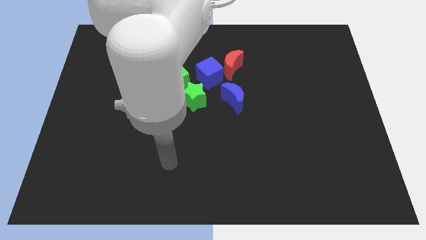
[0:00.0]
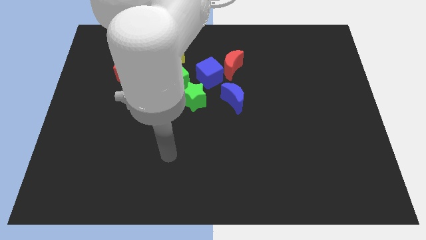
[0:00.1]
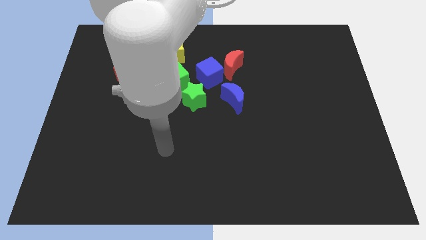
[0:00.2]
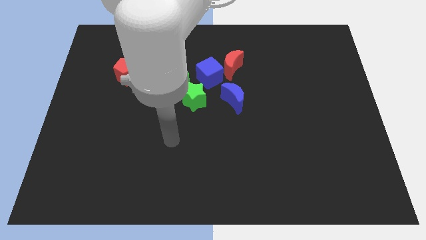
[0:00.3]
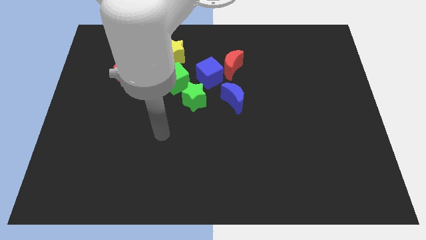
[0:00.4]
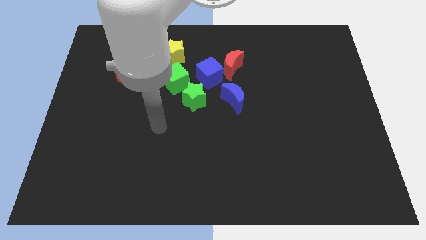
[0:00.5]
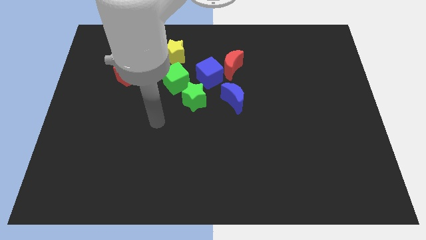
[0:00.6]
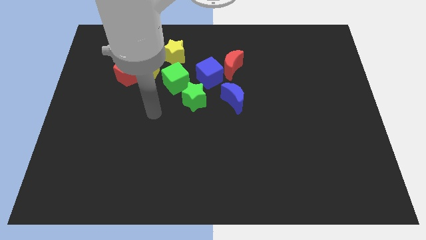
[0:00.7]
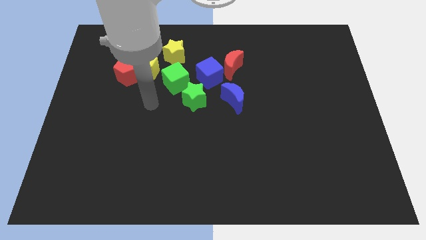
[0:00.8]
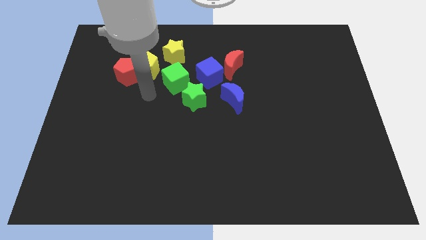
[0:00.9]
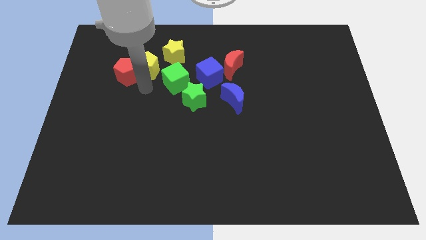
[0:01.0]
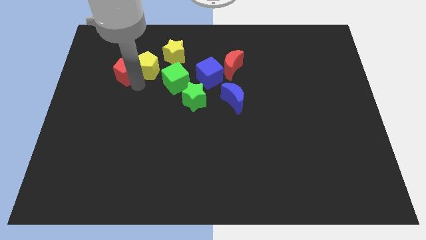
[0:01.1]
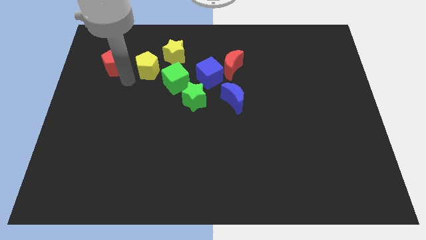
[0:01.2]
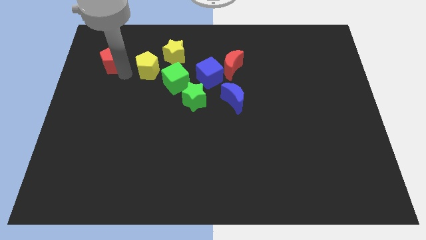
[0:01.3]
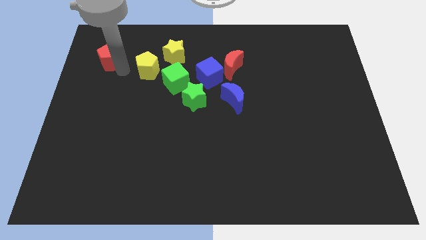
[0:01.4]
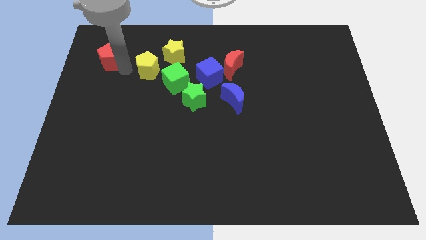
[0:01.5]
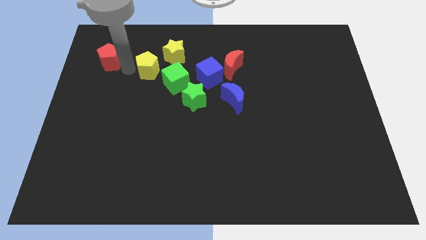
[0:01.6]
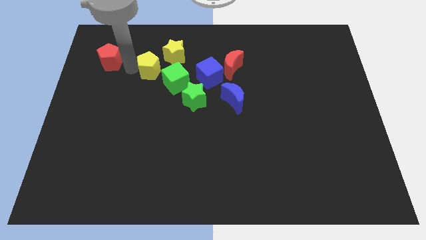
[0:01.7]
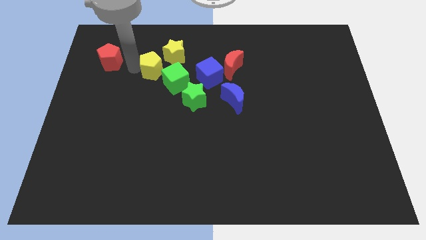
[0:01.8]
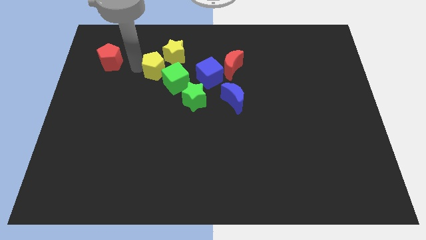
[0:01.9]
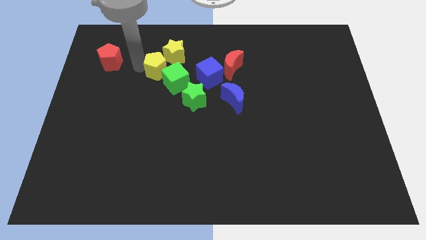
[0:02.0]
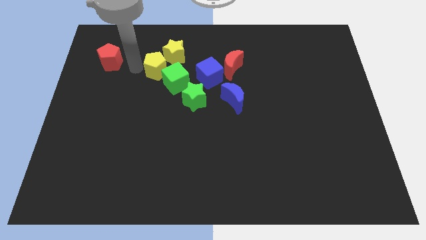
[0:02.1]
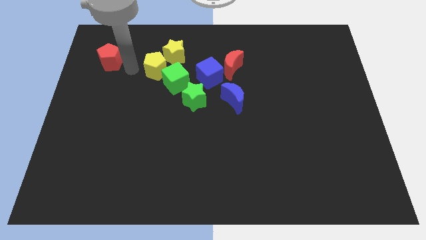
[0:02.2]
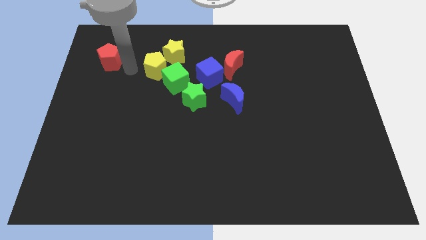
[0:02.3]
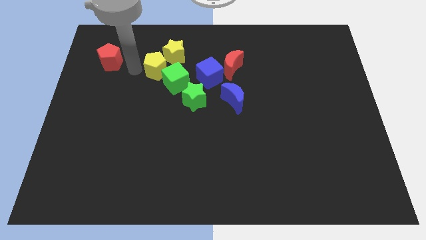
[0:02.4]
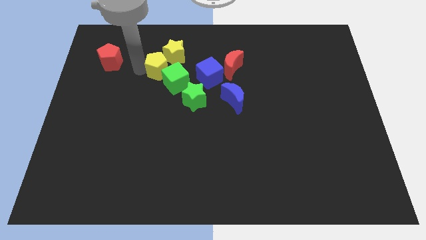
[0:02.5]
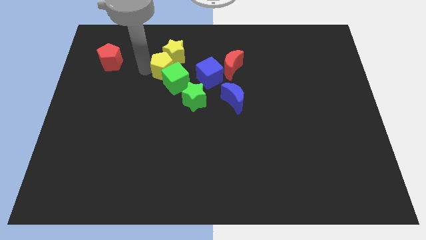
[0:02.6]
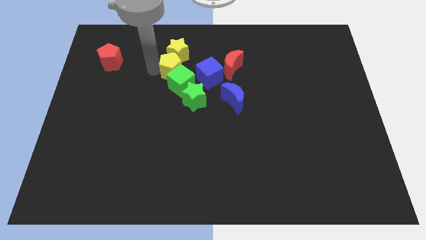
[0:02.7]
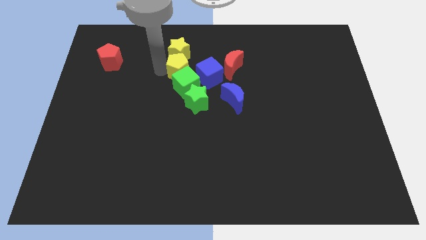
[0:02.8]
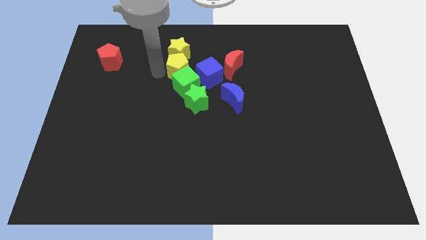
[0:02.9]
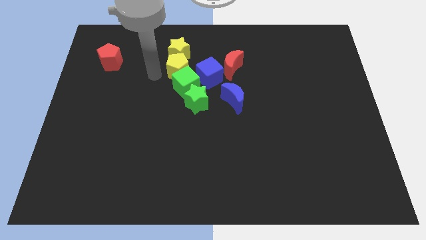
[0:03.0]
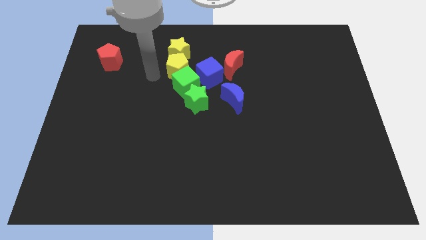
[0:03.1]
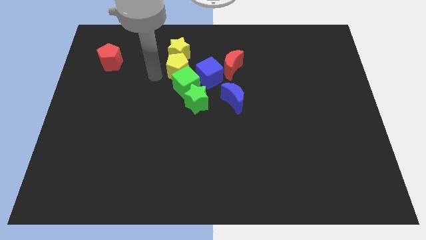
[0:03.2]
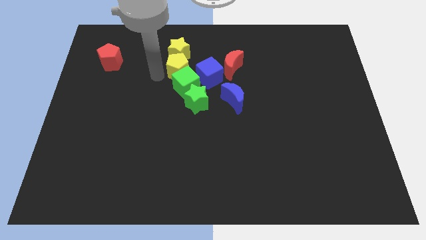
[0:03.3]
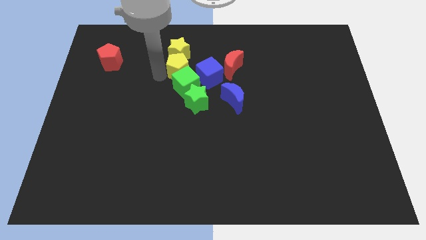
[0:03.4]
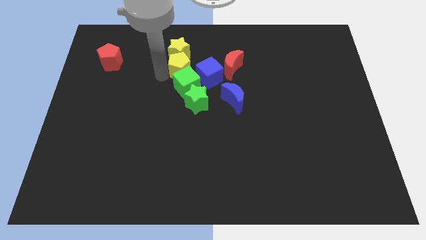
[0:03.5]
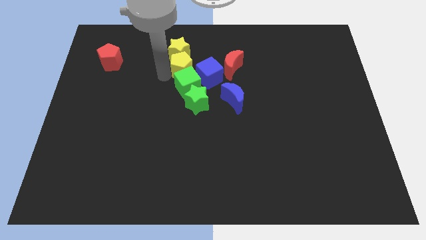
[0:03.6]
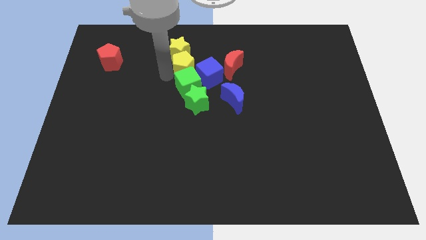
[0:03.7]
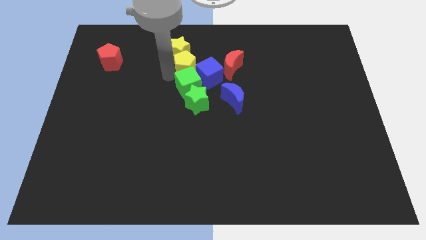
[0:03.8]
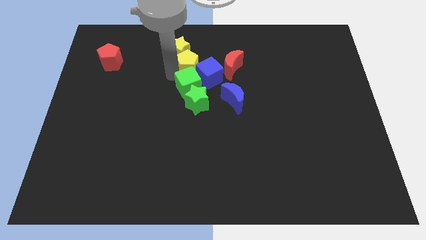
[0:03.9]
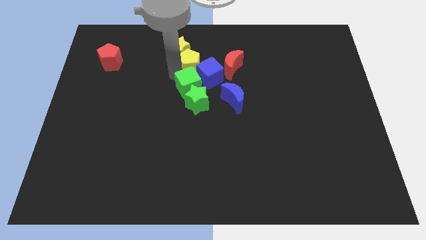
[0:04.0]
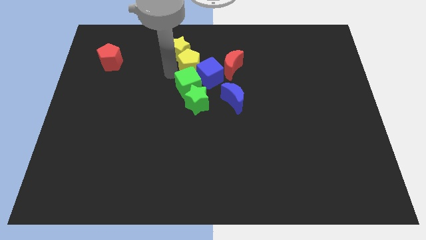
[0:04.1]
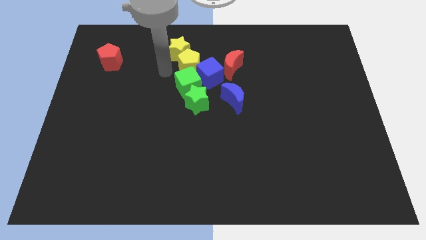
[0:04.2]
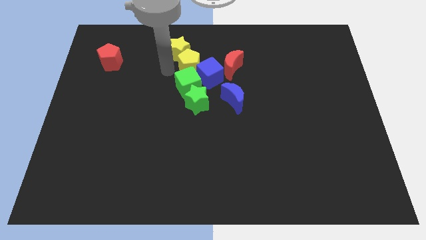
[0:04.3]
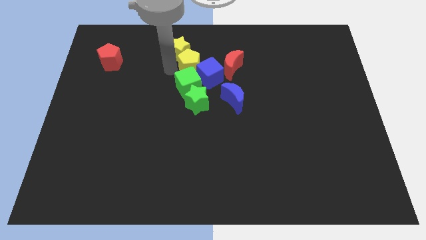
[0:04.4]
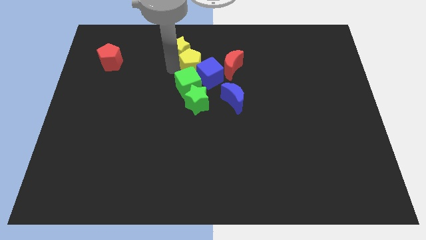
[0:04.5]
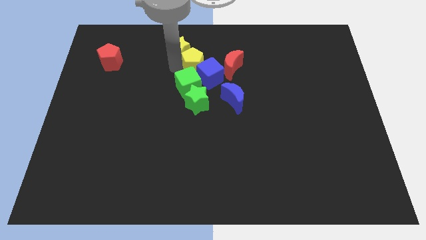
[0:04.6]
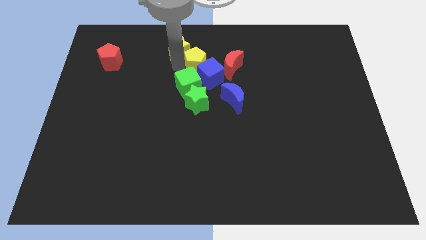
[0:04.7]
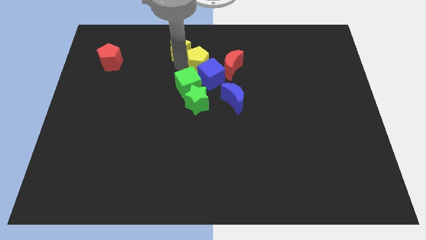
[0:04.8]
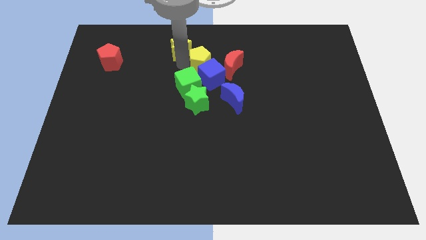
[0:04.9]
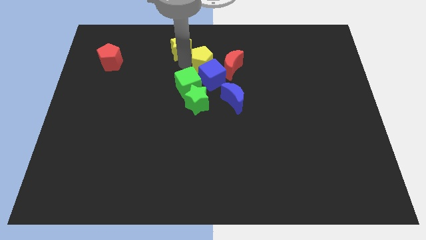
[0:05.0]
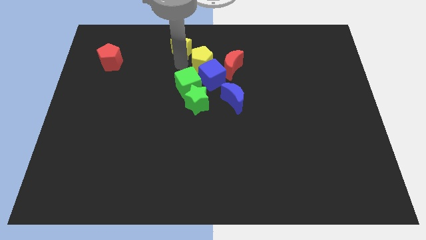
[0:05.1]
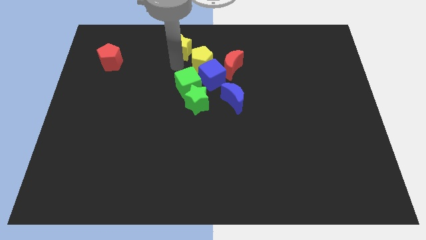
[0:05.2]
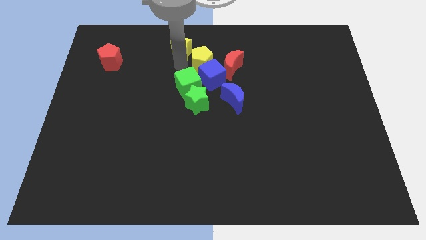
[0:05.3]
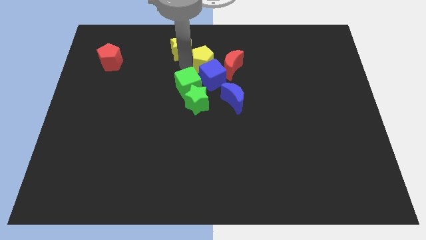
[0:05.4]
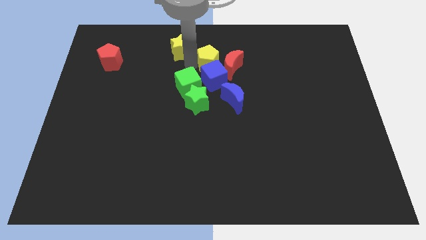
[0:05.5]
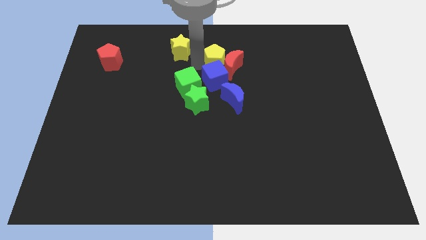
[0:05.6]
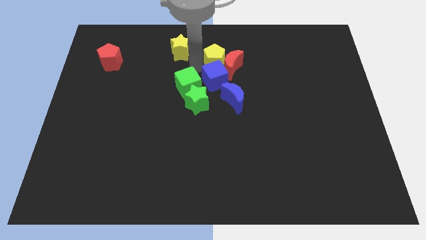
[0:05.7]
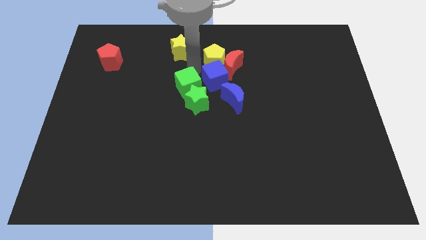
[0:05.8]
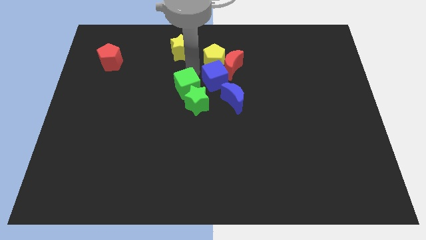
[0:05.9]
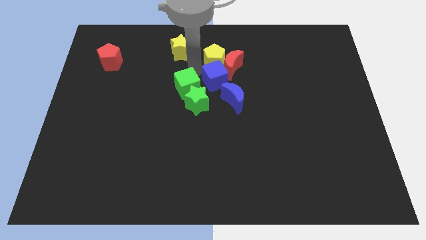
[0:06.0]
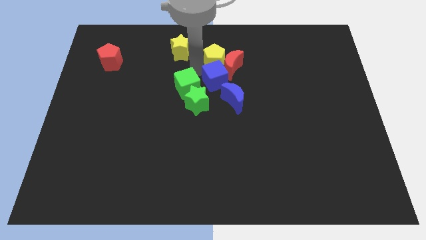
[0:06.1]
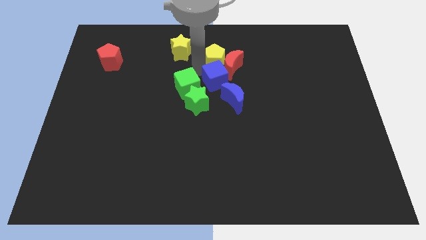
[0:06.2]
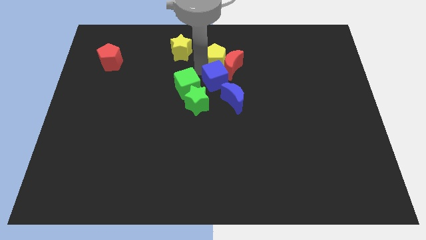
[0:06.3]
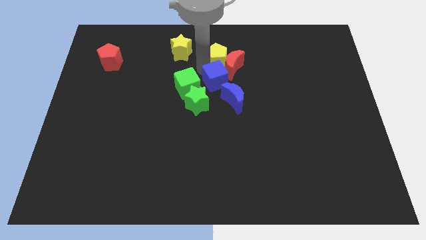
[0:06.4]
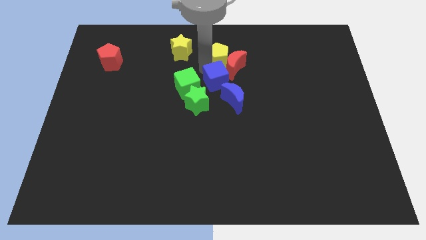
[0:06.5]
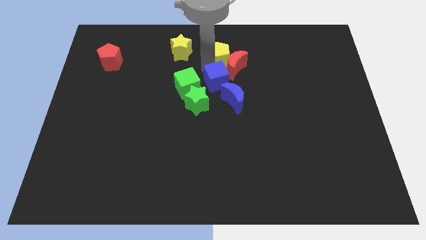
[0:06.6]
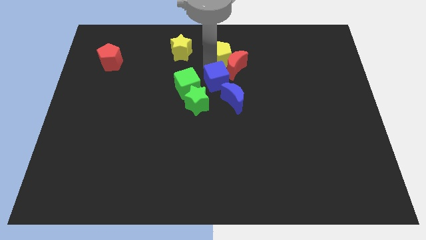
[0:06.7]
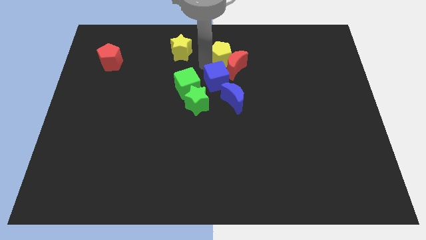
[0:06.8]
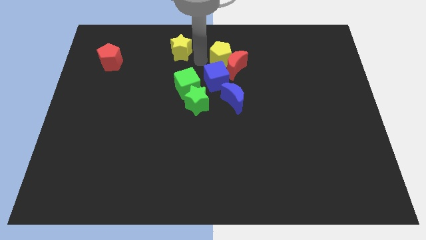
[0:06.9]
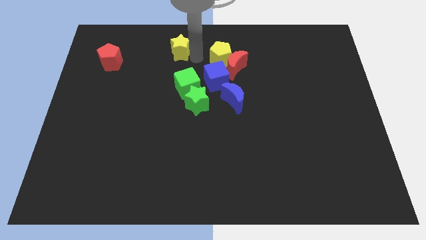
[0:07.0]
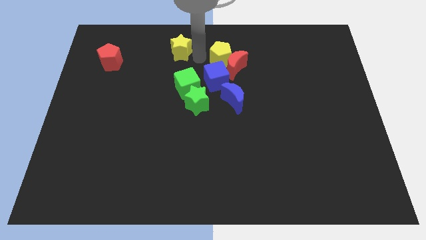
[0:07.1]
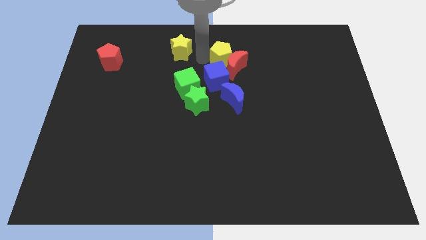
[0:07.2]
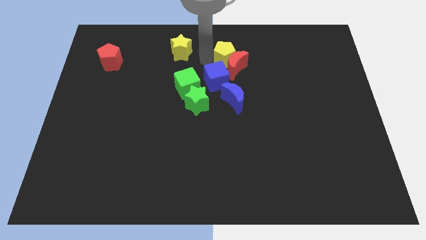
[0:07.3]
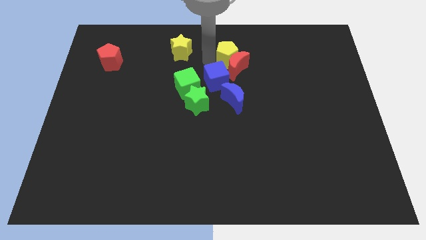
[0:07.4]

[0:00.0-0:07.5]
move the yellow pentagon to the right

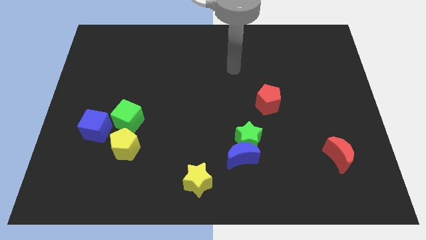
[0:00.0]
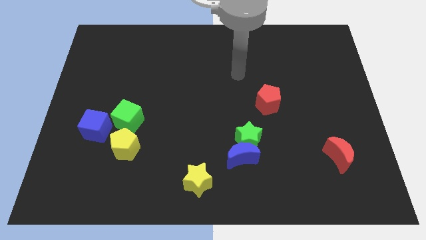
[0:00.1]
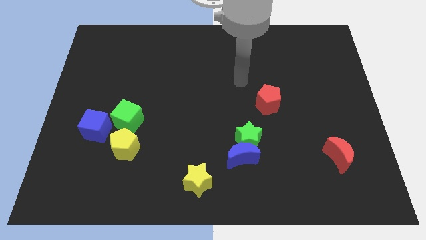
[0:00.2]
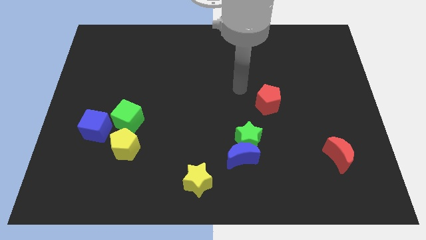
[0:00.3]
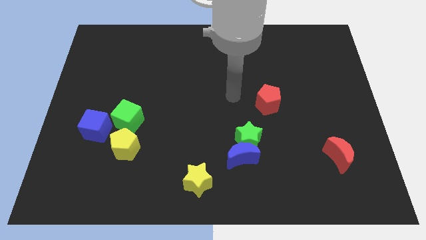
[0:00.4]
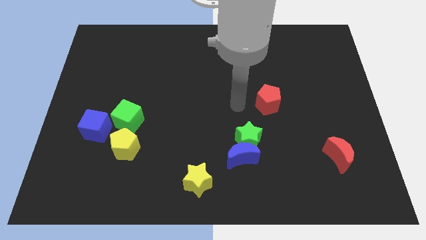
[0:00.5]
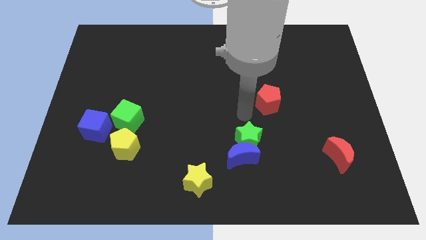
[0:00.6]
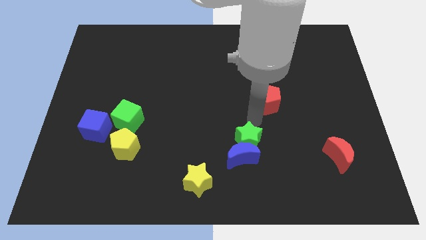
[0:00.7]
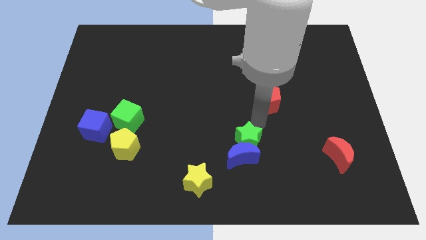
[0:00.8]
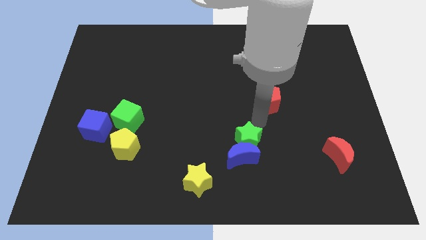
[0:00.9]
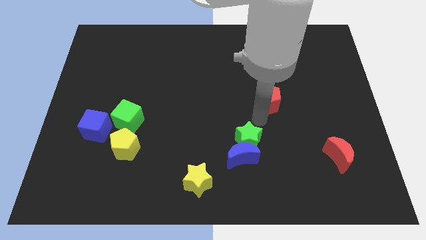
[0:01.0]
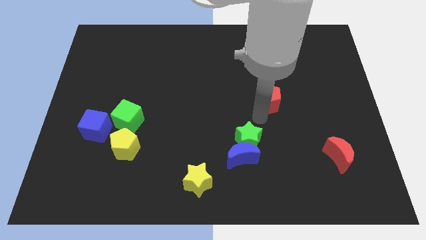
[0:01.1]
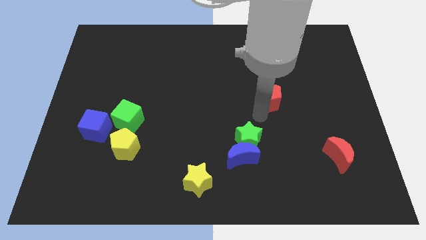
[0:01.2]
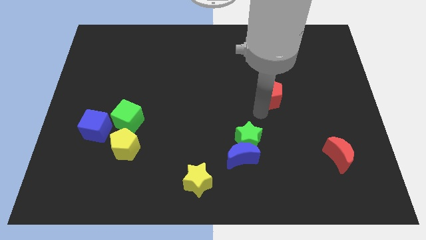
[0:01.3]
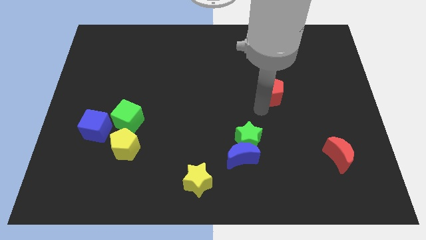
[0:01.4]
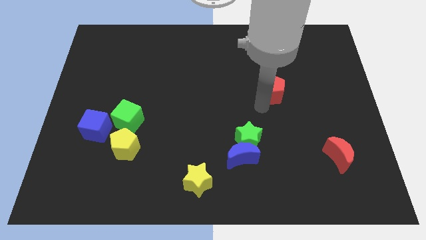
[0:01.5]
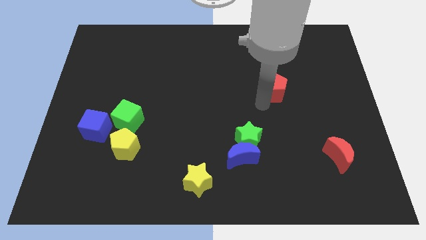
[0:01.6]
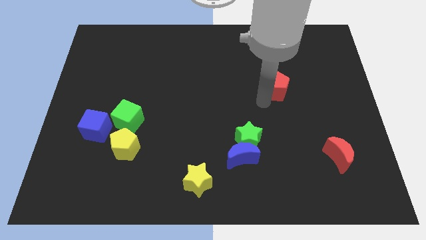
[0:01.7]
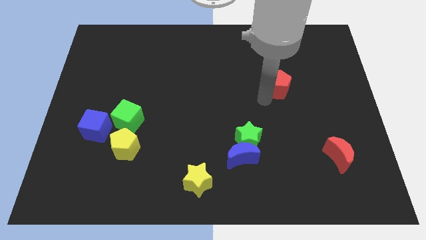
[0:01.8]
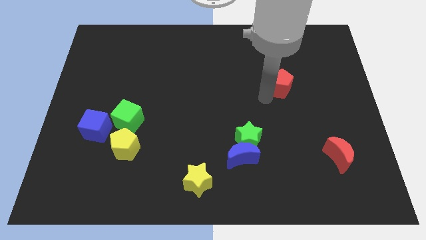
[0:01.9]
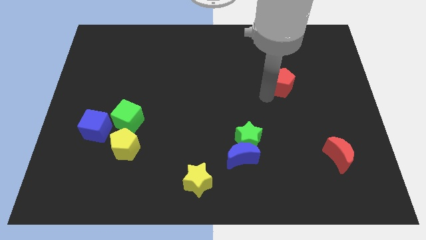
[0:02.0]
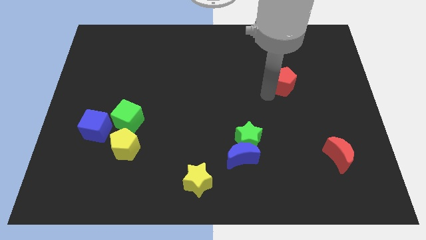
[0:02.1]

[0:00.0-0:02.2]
slide the red pentagon somewhat upwards and to the right diagonally
